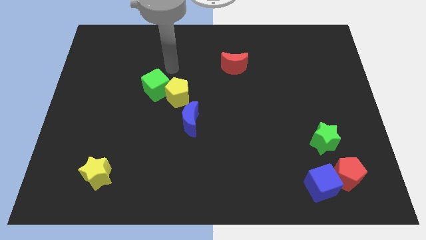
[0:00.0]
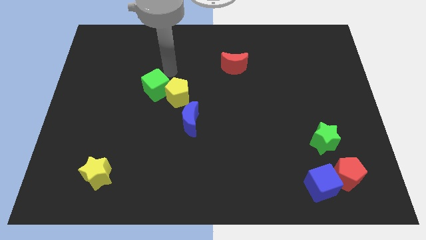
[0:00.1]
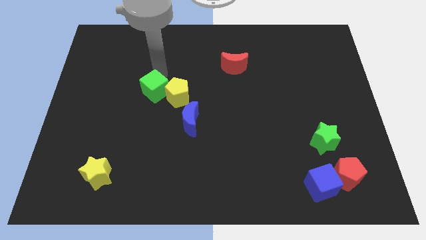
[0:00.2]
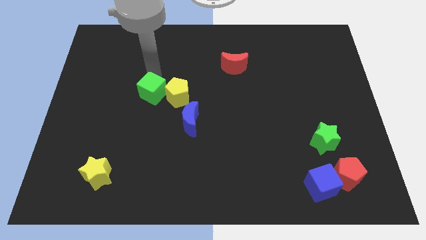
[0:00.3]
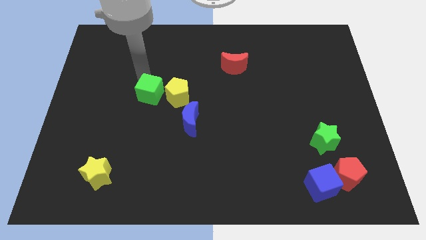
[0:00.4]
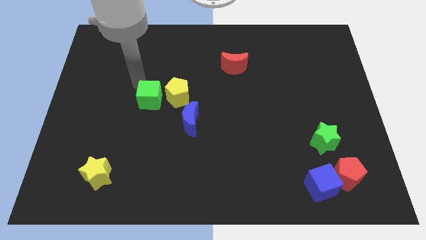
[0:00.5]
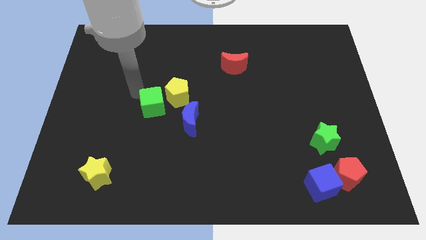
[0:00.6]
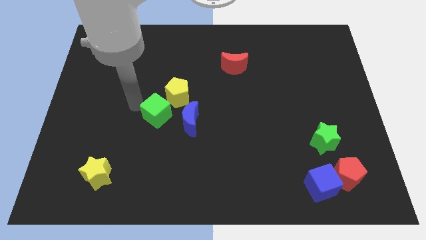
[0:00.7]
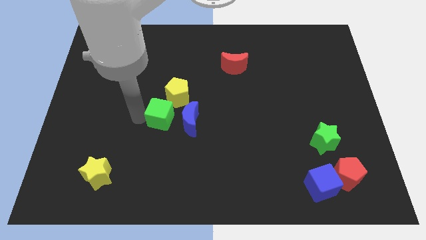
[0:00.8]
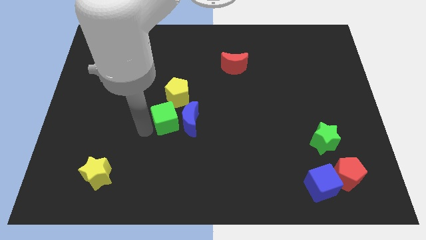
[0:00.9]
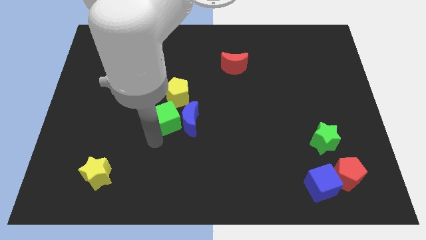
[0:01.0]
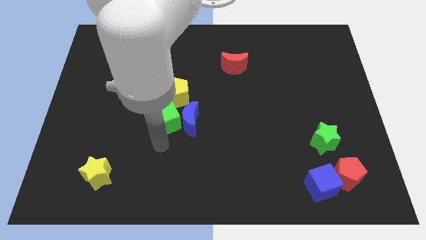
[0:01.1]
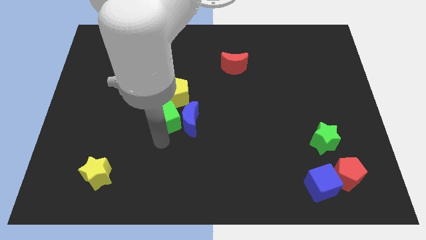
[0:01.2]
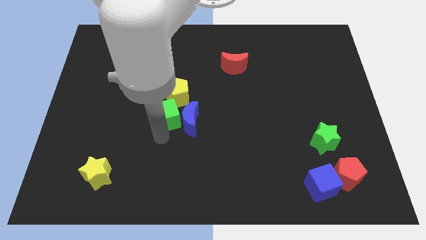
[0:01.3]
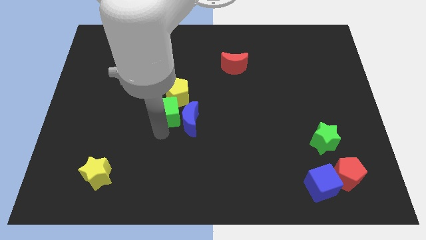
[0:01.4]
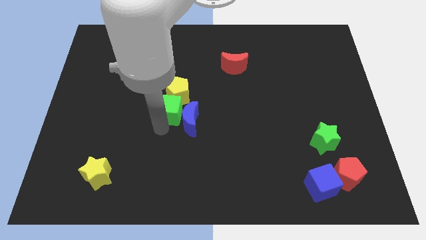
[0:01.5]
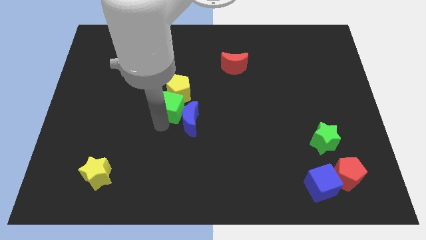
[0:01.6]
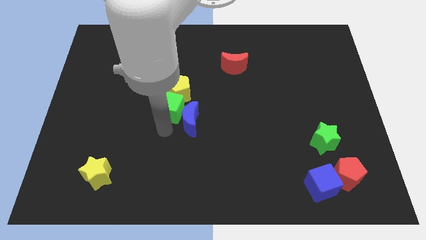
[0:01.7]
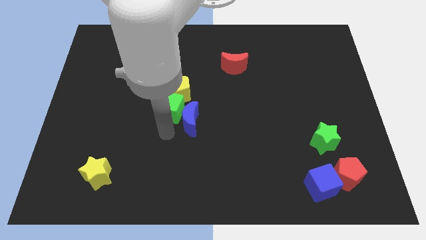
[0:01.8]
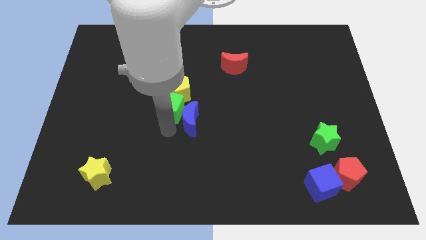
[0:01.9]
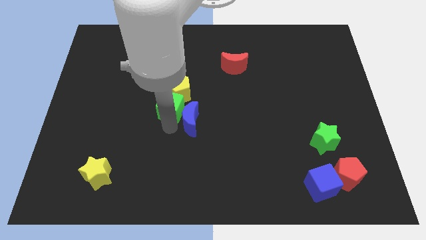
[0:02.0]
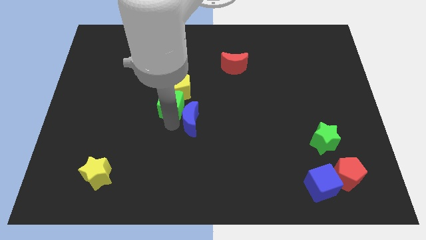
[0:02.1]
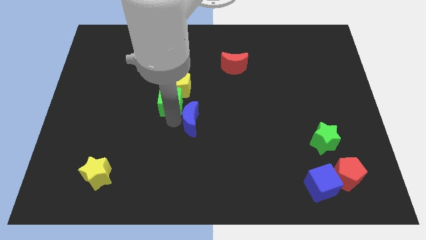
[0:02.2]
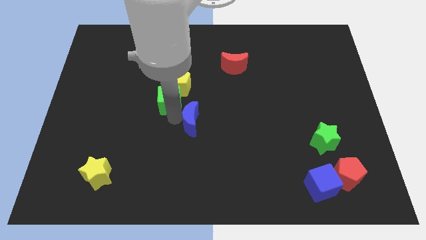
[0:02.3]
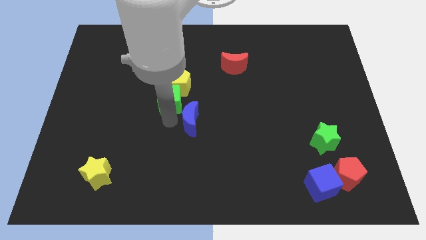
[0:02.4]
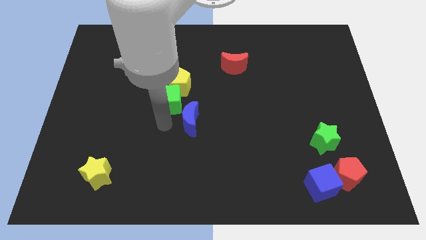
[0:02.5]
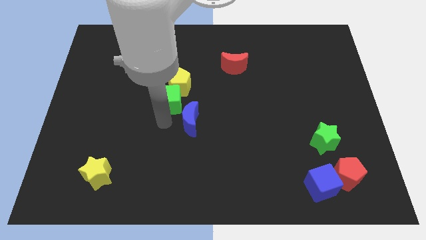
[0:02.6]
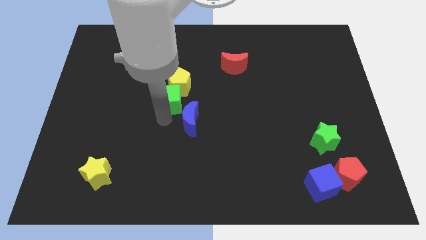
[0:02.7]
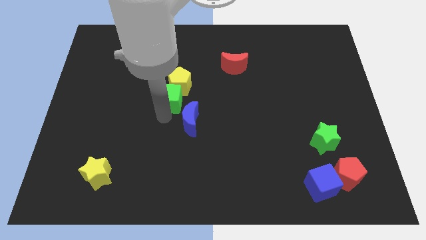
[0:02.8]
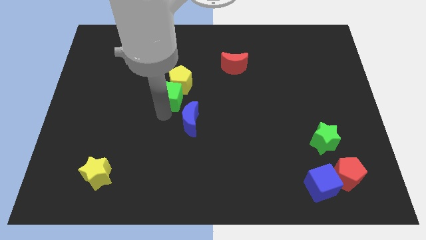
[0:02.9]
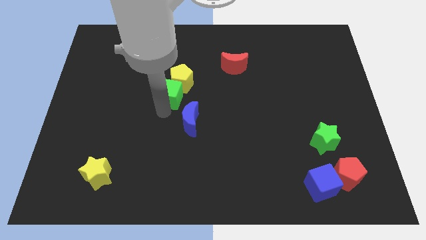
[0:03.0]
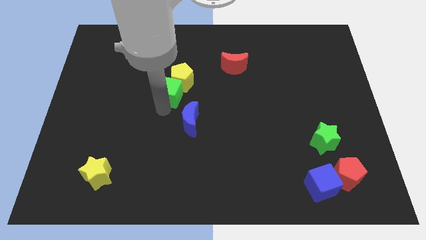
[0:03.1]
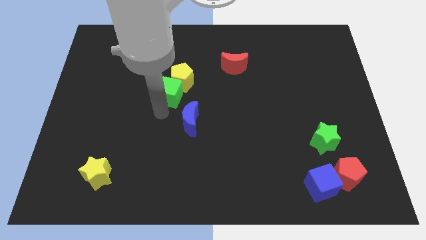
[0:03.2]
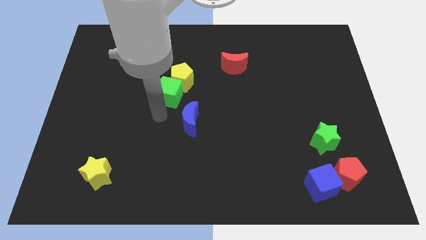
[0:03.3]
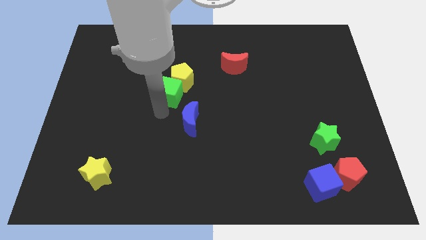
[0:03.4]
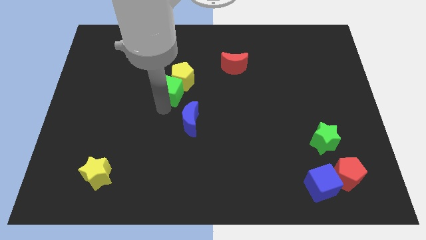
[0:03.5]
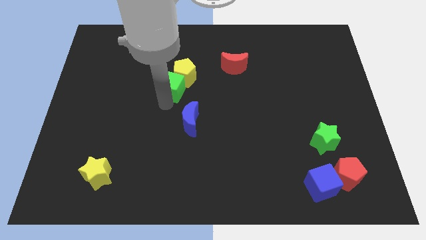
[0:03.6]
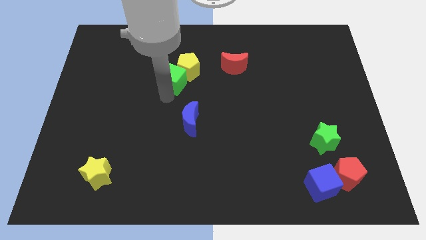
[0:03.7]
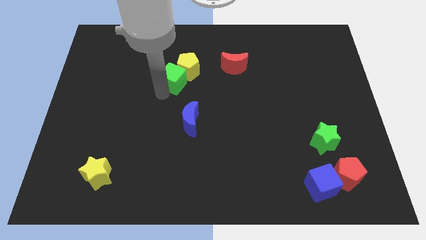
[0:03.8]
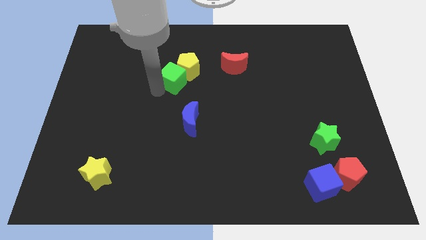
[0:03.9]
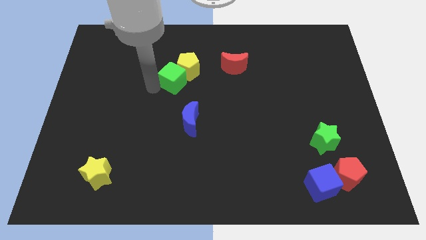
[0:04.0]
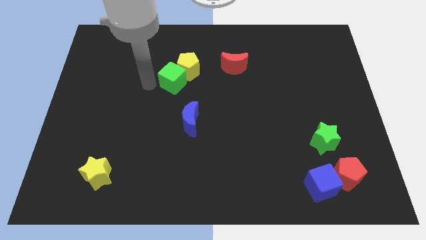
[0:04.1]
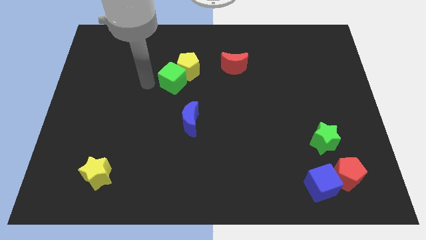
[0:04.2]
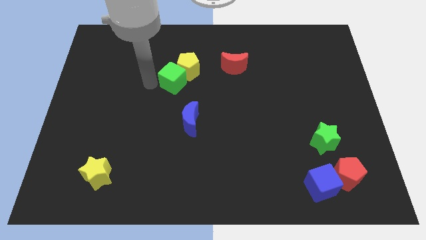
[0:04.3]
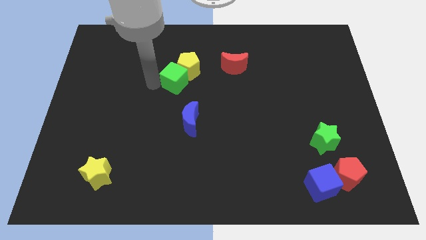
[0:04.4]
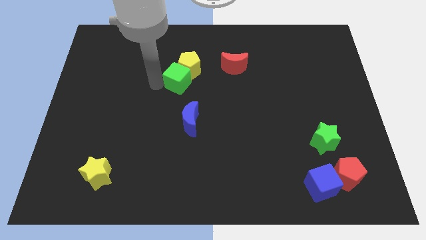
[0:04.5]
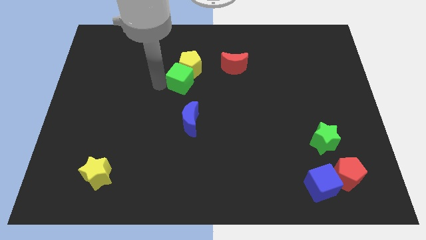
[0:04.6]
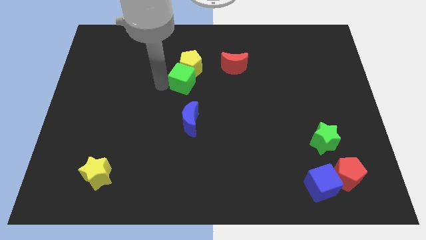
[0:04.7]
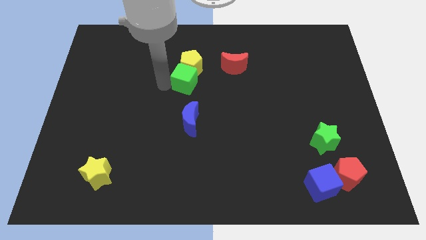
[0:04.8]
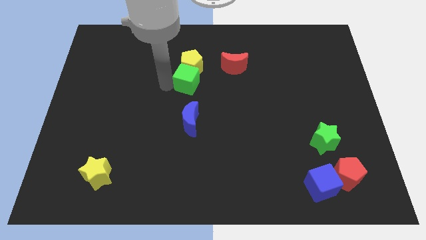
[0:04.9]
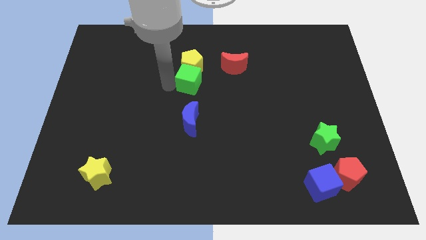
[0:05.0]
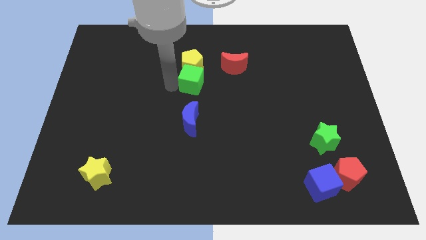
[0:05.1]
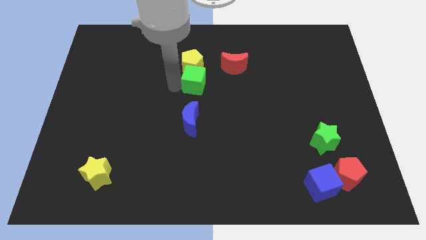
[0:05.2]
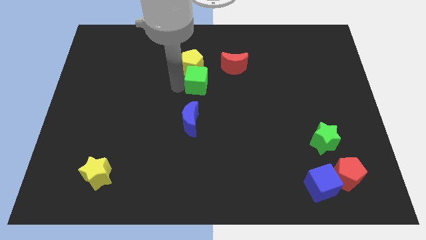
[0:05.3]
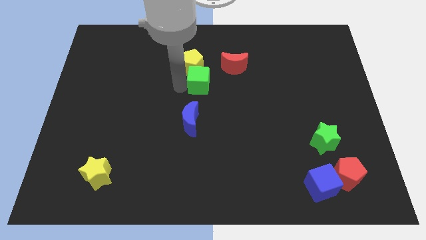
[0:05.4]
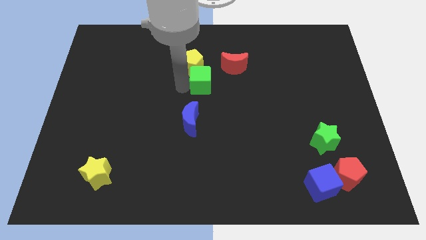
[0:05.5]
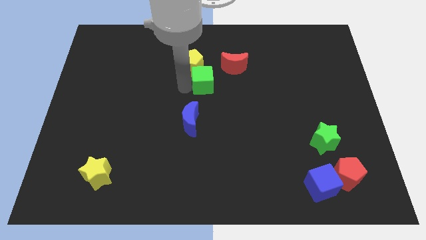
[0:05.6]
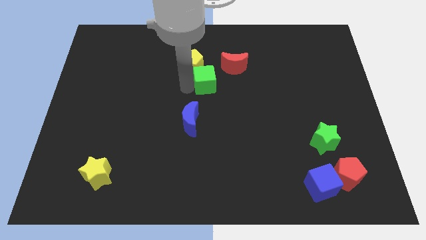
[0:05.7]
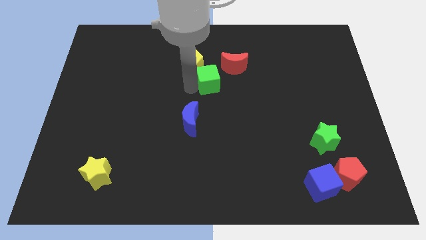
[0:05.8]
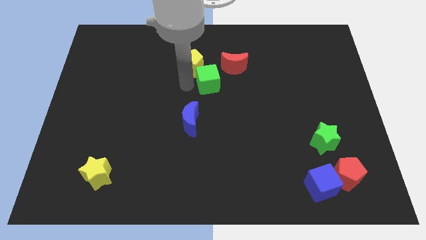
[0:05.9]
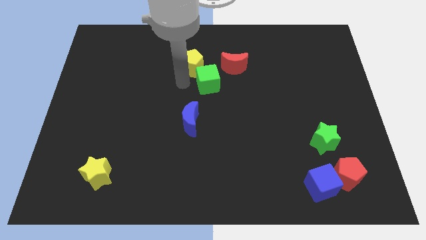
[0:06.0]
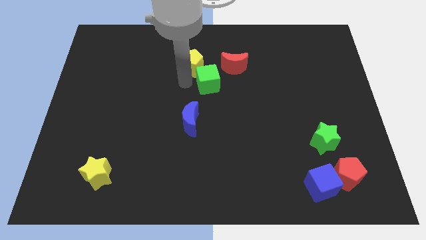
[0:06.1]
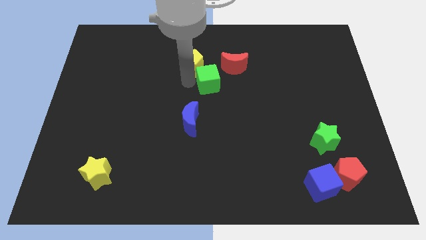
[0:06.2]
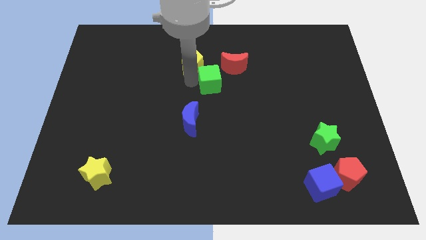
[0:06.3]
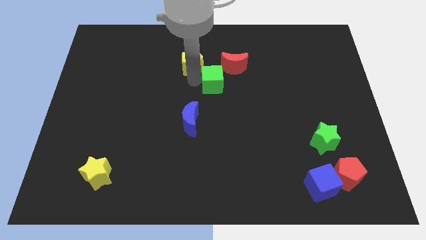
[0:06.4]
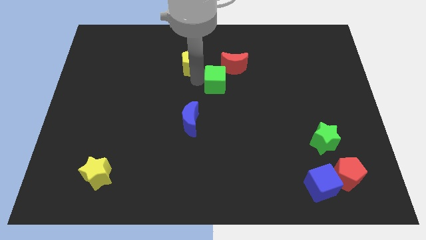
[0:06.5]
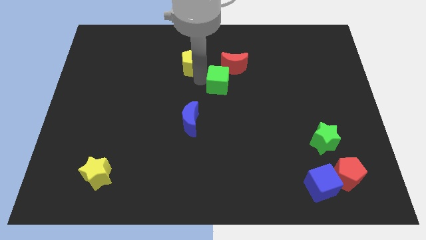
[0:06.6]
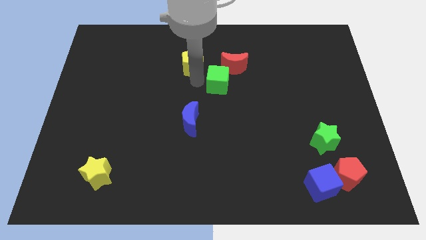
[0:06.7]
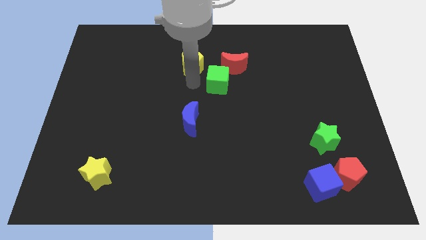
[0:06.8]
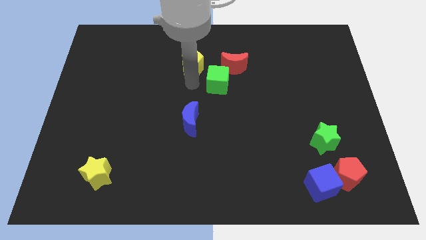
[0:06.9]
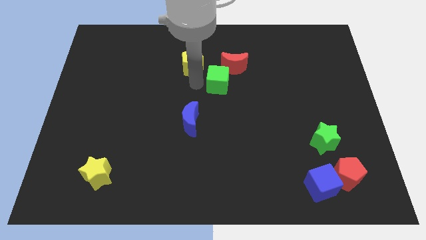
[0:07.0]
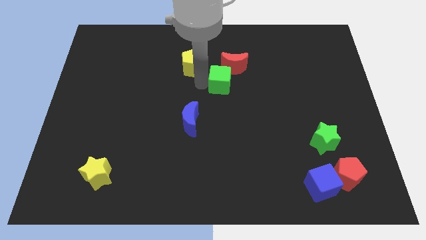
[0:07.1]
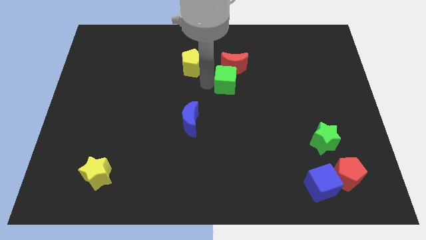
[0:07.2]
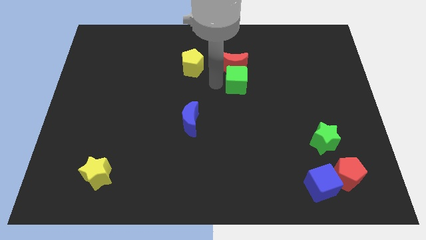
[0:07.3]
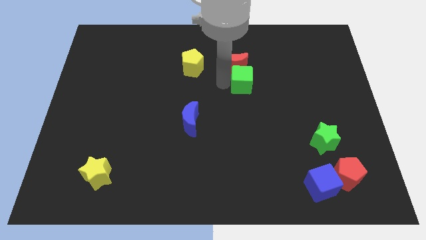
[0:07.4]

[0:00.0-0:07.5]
move the green cube right

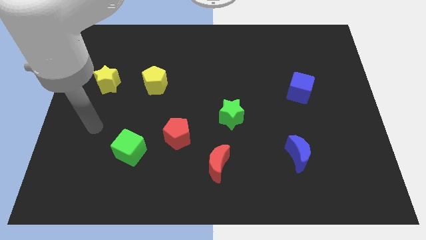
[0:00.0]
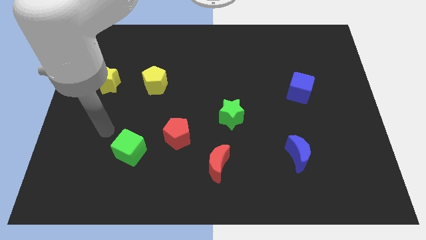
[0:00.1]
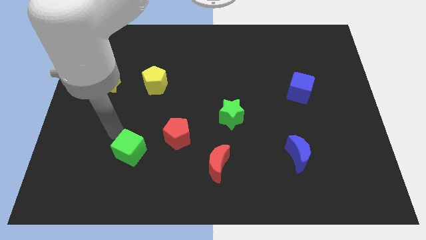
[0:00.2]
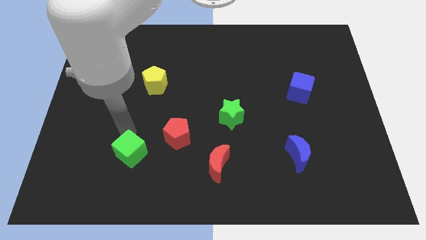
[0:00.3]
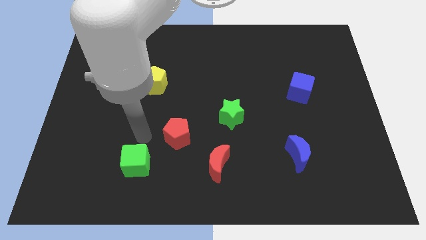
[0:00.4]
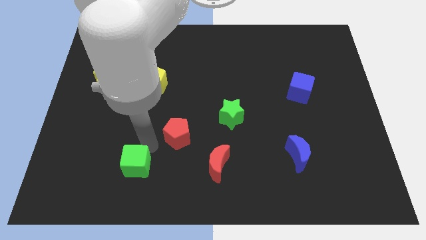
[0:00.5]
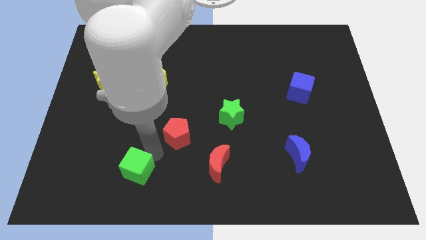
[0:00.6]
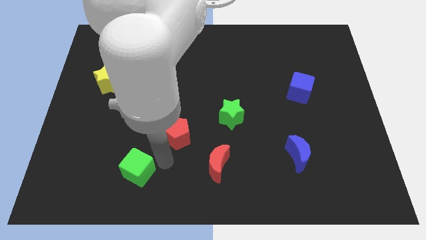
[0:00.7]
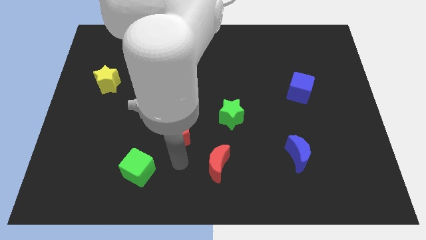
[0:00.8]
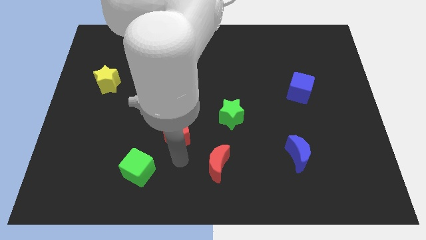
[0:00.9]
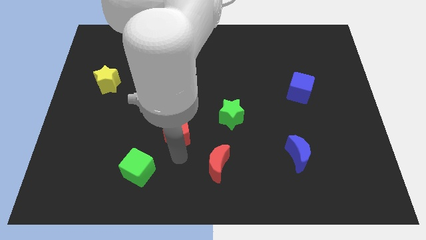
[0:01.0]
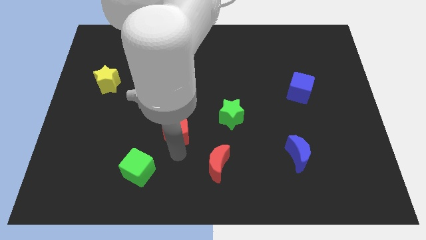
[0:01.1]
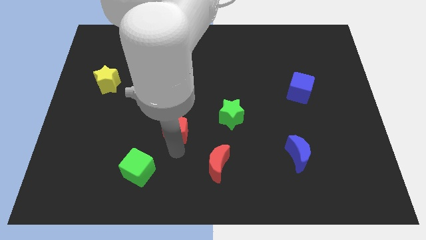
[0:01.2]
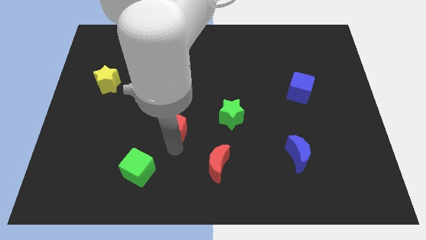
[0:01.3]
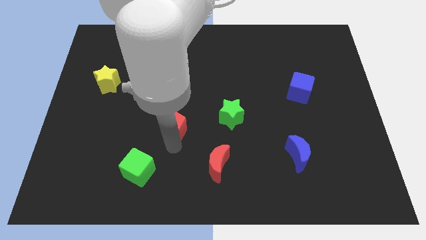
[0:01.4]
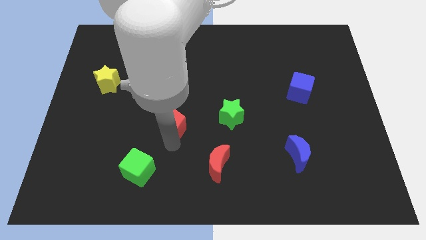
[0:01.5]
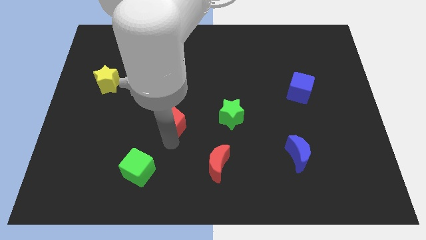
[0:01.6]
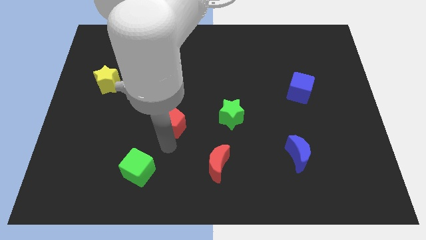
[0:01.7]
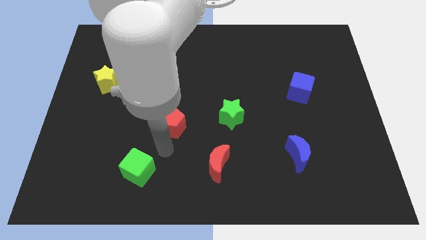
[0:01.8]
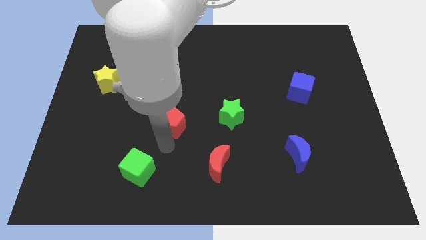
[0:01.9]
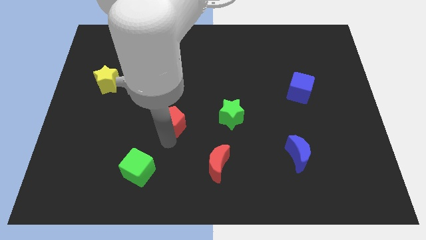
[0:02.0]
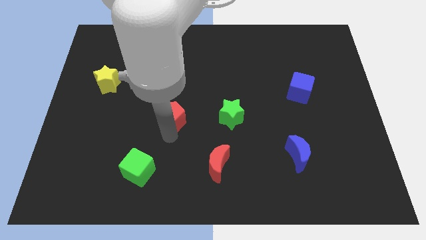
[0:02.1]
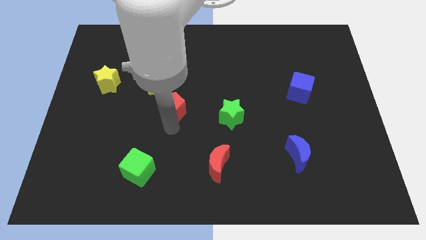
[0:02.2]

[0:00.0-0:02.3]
slightly slide the red pentagon up
